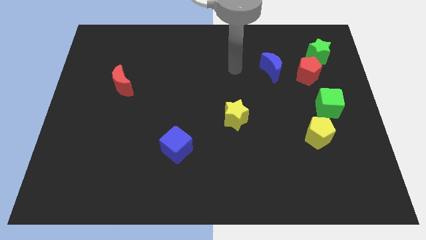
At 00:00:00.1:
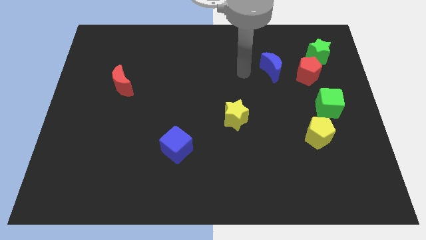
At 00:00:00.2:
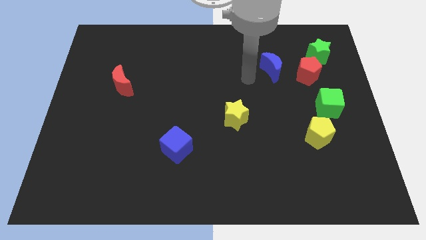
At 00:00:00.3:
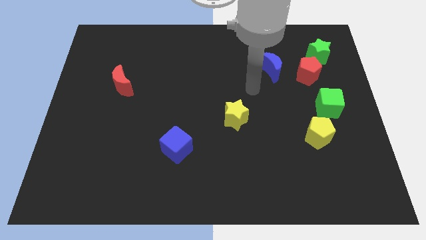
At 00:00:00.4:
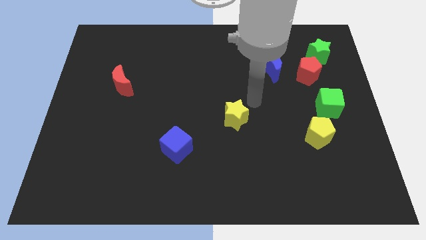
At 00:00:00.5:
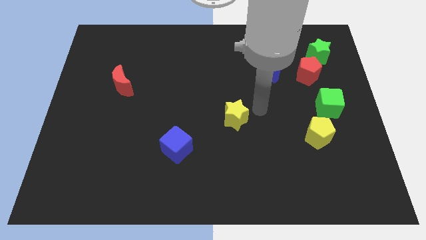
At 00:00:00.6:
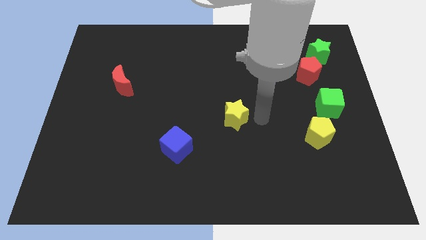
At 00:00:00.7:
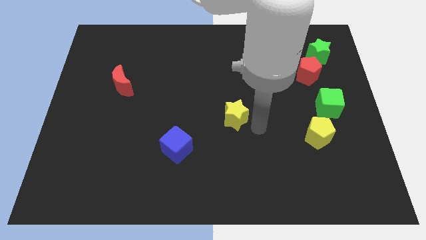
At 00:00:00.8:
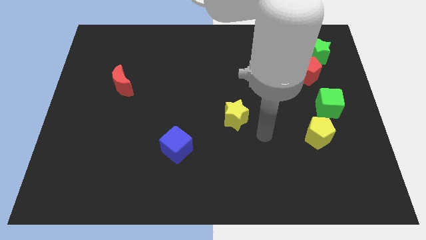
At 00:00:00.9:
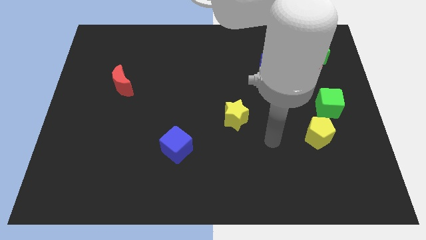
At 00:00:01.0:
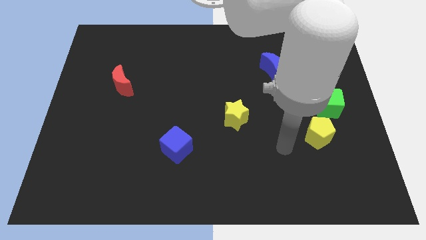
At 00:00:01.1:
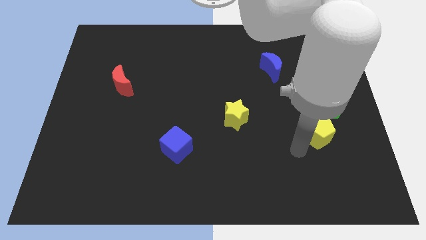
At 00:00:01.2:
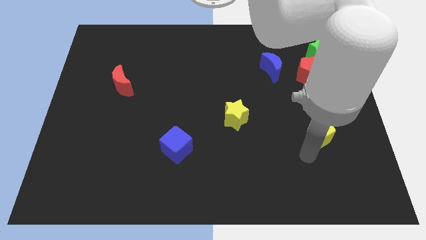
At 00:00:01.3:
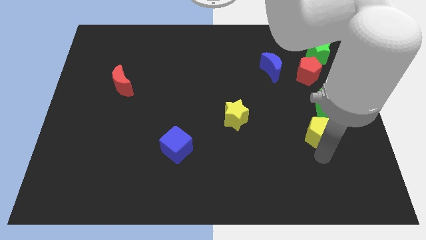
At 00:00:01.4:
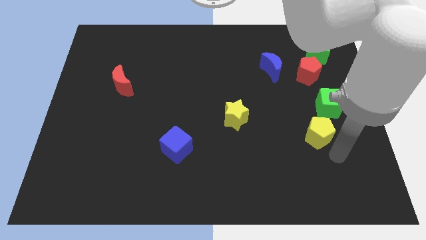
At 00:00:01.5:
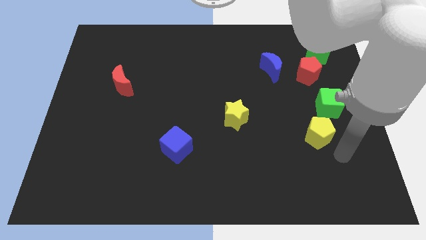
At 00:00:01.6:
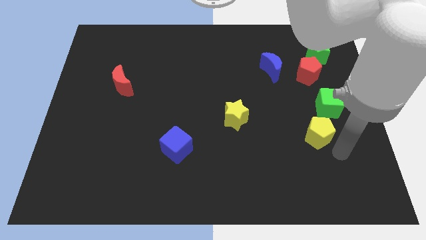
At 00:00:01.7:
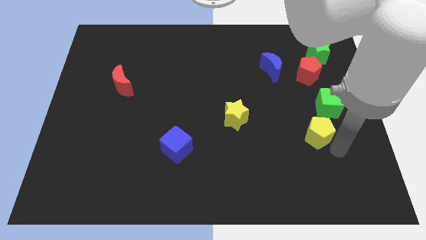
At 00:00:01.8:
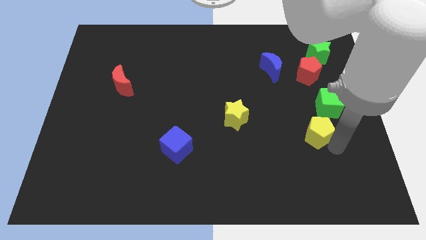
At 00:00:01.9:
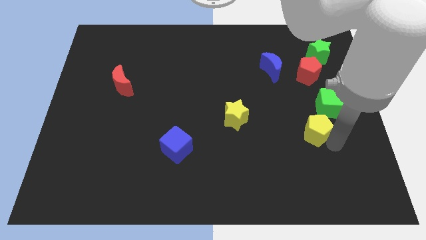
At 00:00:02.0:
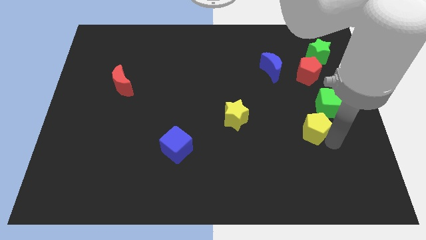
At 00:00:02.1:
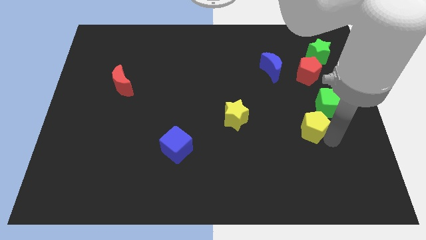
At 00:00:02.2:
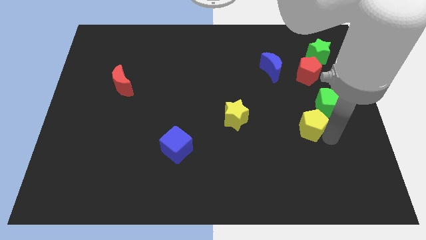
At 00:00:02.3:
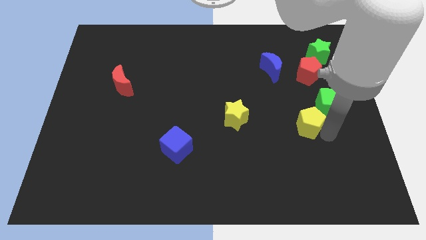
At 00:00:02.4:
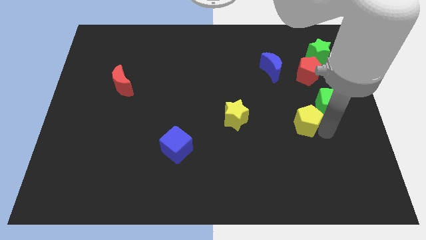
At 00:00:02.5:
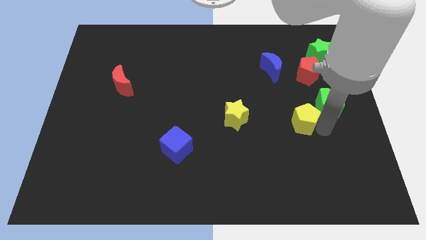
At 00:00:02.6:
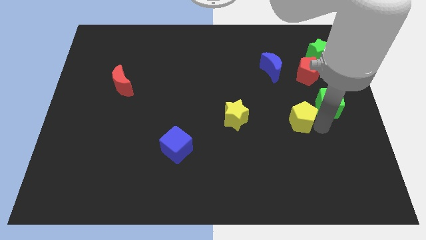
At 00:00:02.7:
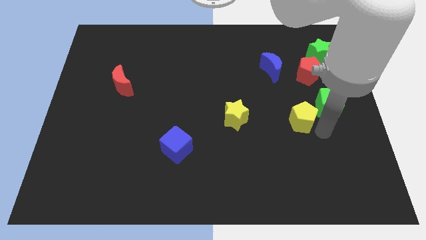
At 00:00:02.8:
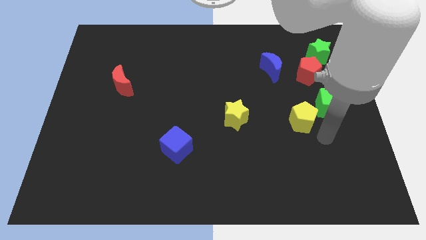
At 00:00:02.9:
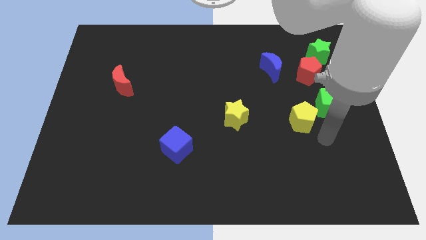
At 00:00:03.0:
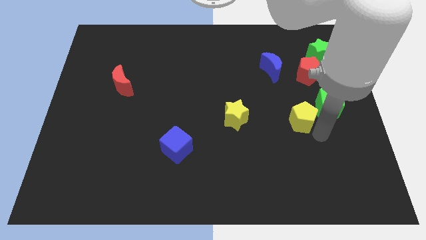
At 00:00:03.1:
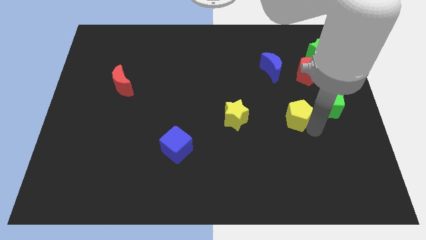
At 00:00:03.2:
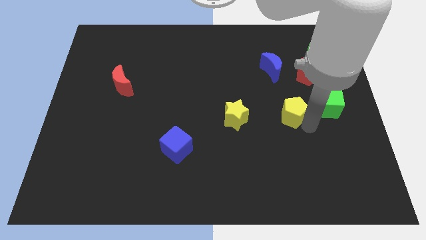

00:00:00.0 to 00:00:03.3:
move the yellow pentagon a little bit up and to the left

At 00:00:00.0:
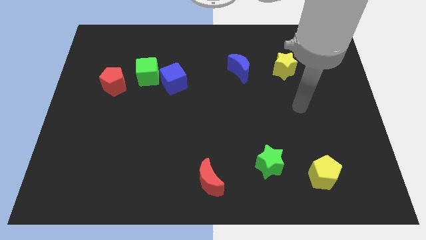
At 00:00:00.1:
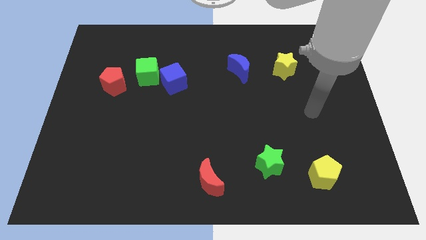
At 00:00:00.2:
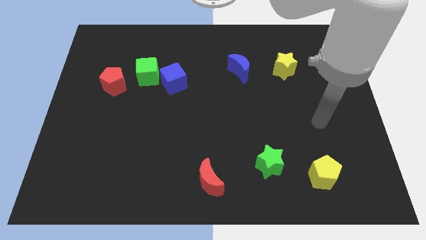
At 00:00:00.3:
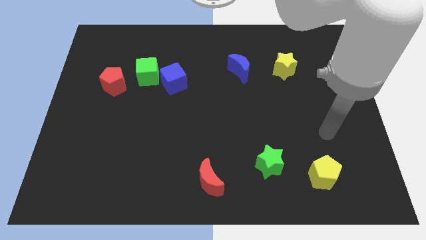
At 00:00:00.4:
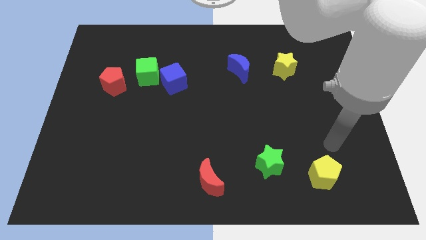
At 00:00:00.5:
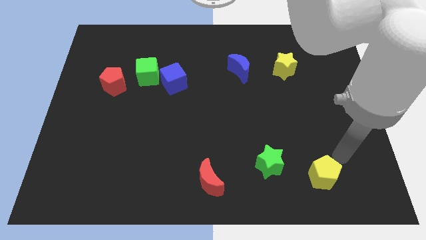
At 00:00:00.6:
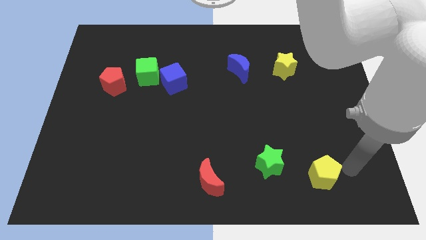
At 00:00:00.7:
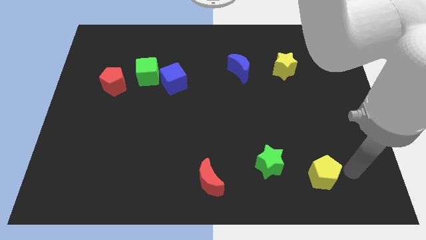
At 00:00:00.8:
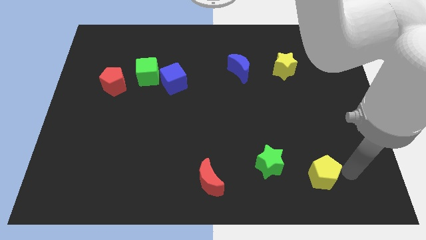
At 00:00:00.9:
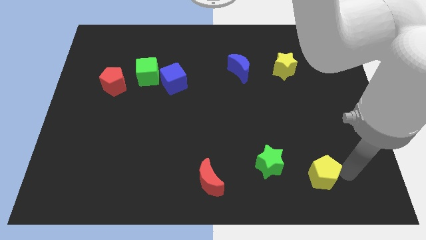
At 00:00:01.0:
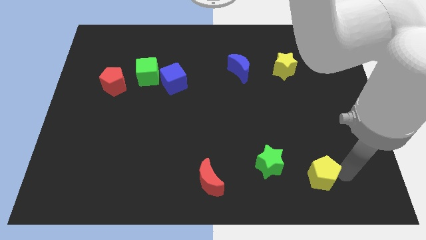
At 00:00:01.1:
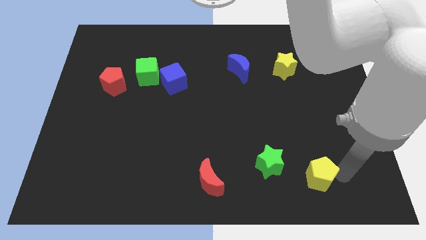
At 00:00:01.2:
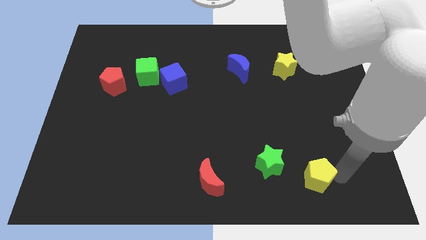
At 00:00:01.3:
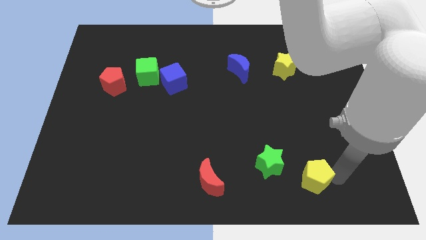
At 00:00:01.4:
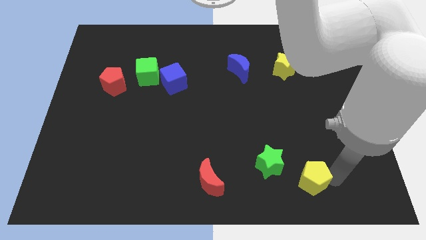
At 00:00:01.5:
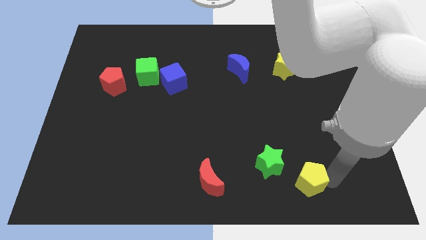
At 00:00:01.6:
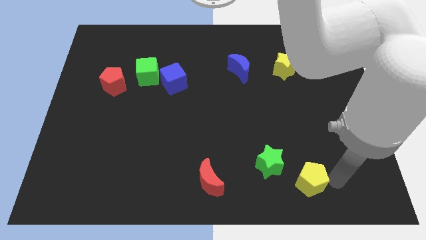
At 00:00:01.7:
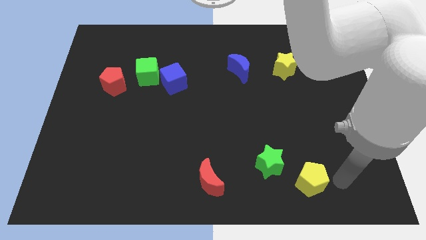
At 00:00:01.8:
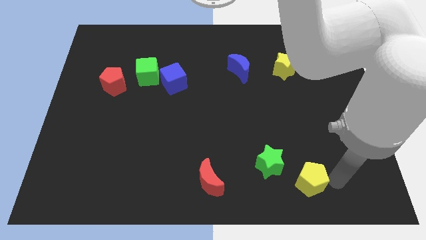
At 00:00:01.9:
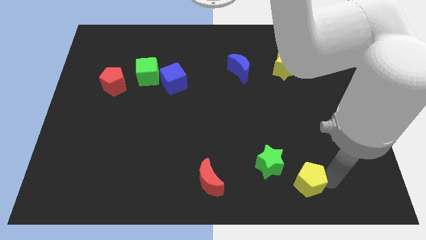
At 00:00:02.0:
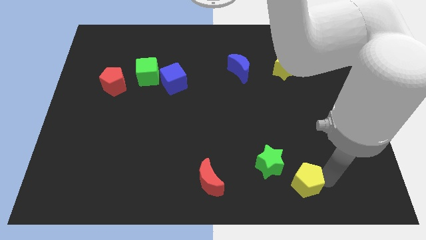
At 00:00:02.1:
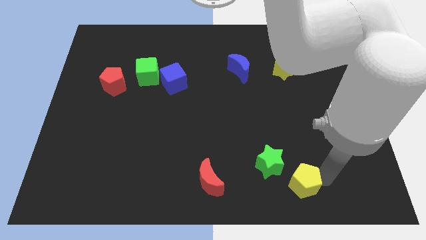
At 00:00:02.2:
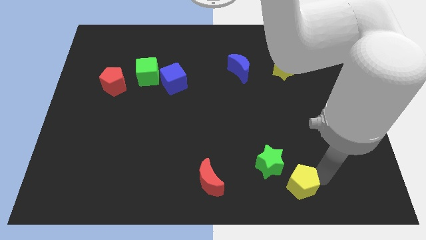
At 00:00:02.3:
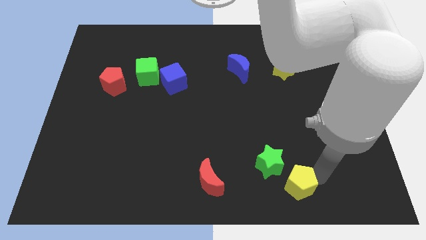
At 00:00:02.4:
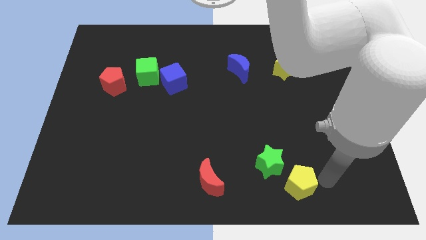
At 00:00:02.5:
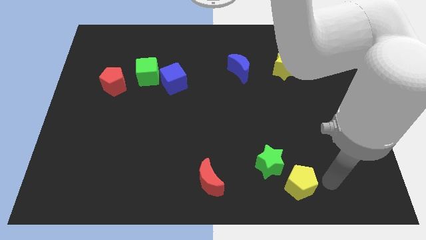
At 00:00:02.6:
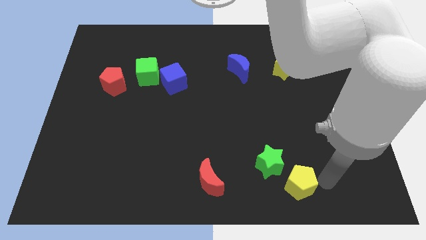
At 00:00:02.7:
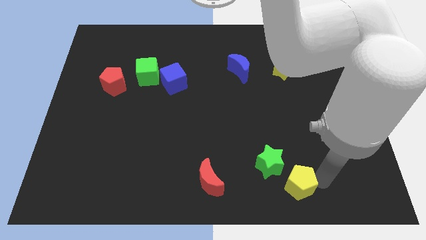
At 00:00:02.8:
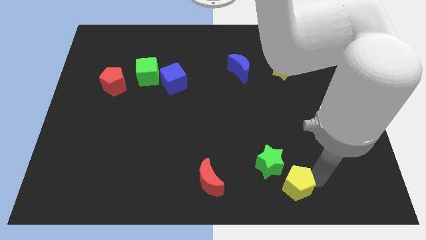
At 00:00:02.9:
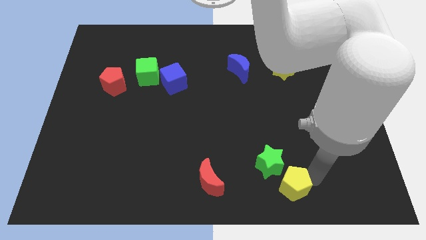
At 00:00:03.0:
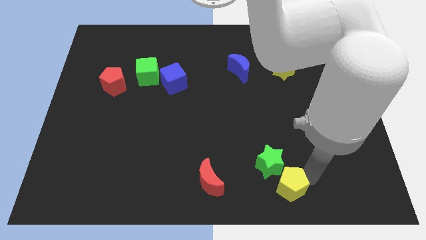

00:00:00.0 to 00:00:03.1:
slightly slide the yellow pentagon to the left

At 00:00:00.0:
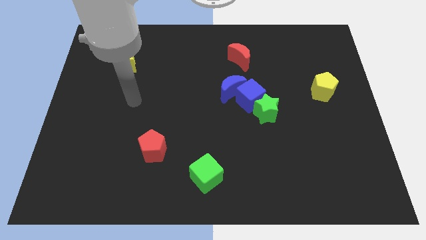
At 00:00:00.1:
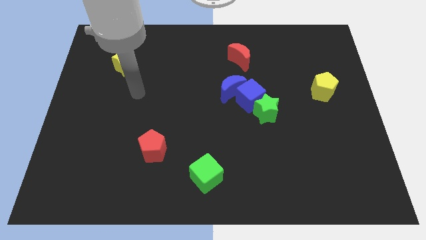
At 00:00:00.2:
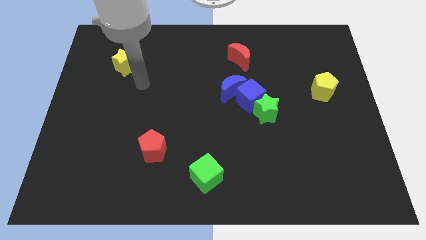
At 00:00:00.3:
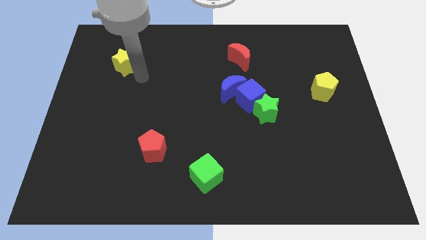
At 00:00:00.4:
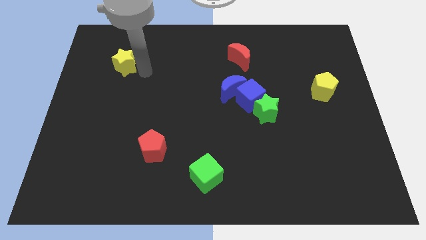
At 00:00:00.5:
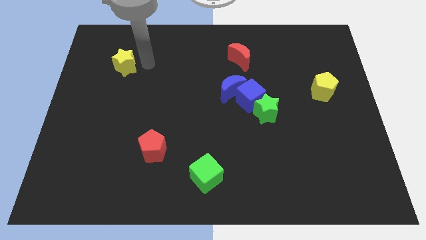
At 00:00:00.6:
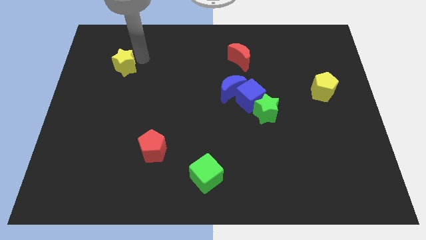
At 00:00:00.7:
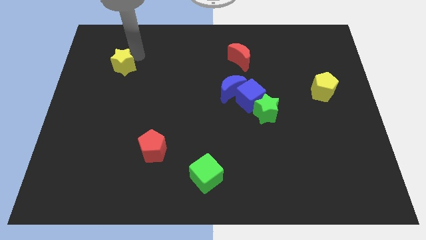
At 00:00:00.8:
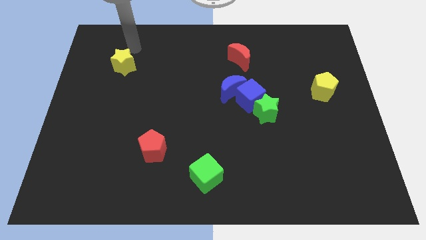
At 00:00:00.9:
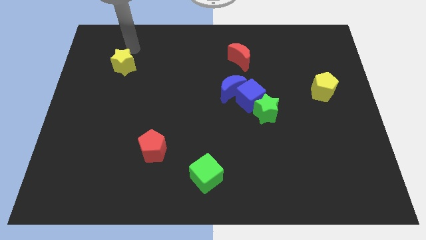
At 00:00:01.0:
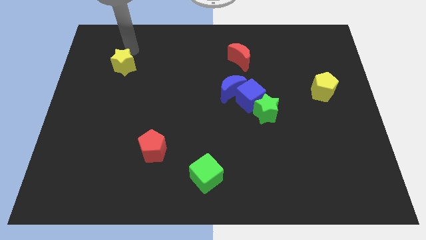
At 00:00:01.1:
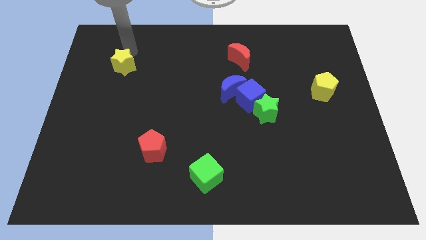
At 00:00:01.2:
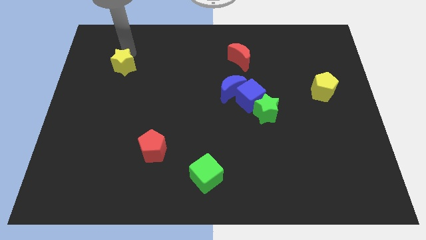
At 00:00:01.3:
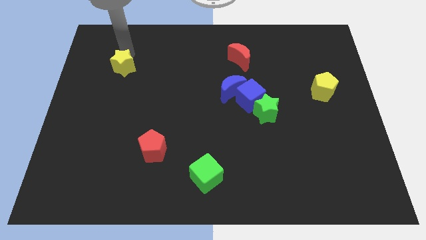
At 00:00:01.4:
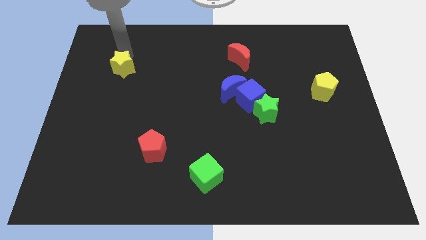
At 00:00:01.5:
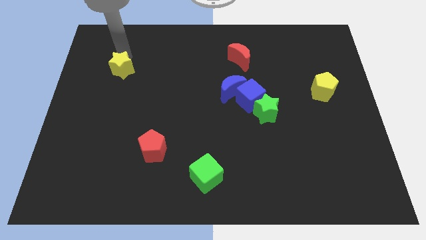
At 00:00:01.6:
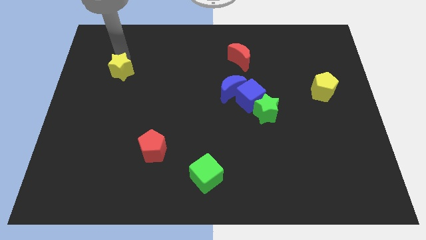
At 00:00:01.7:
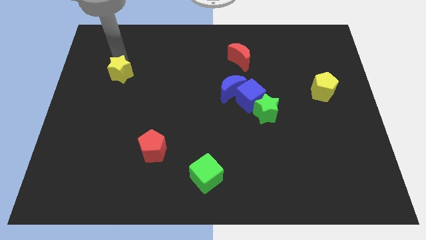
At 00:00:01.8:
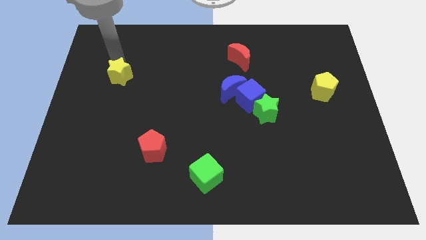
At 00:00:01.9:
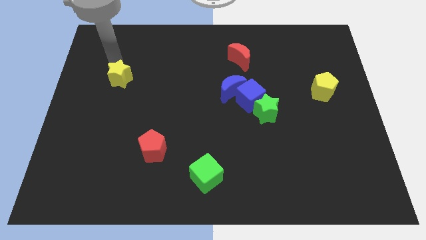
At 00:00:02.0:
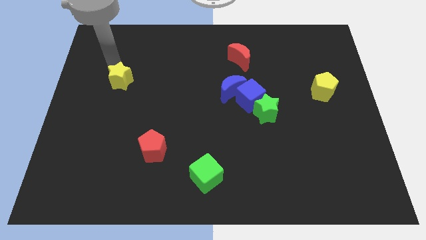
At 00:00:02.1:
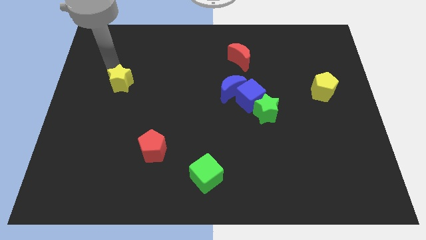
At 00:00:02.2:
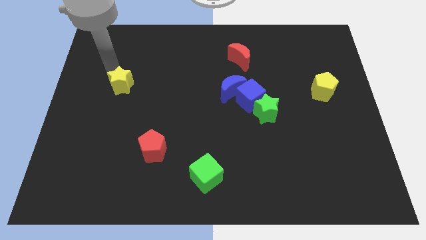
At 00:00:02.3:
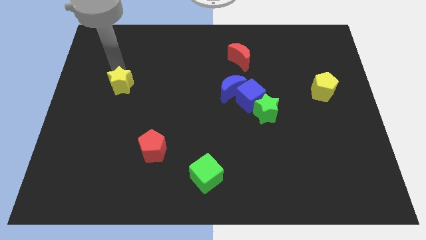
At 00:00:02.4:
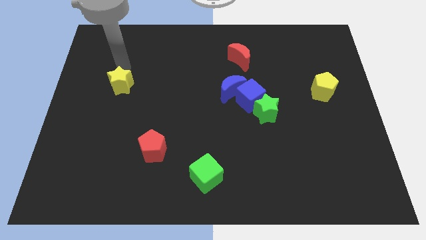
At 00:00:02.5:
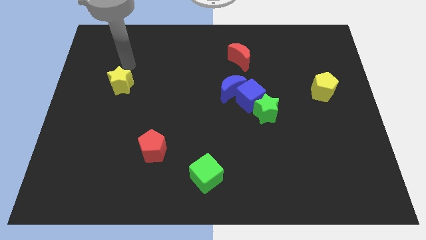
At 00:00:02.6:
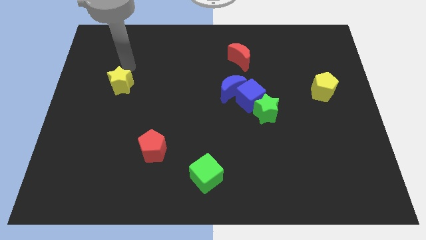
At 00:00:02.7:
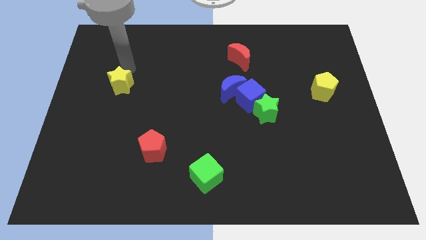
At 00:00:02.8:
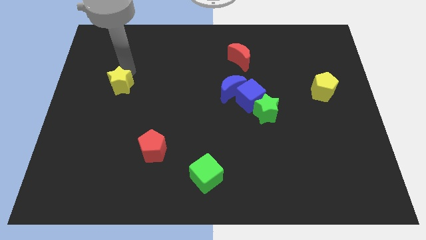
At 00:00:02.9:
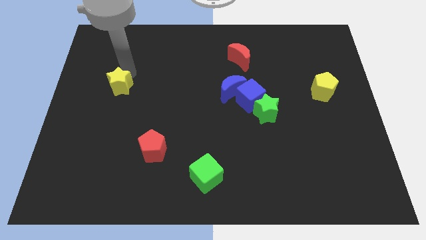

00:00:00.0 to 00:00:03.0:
move the yellow star down somewhat
